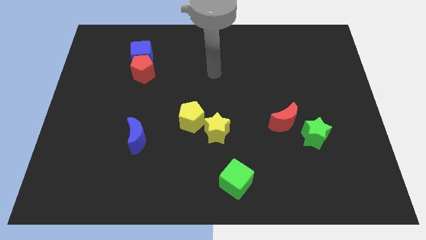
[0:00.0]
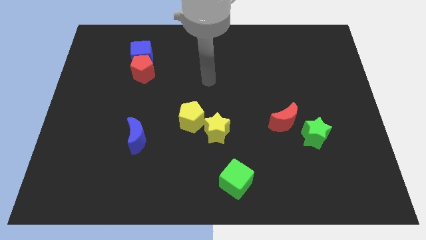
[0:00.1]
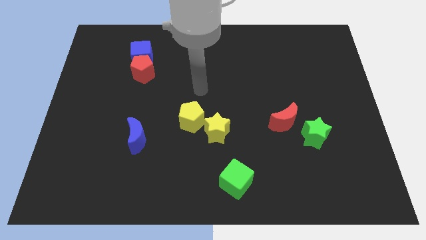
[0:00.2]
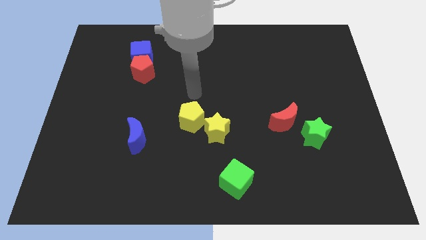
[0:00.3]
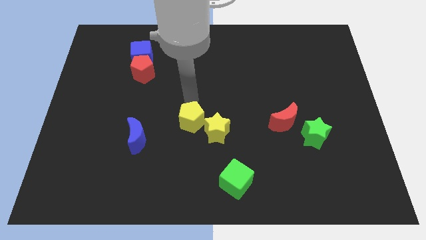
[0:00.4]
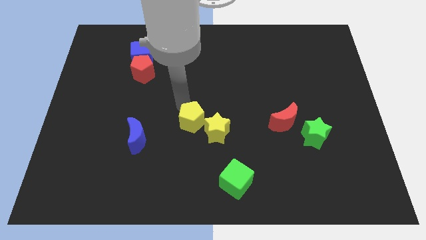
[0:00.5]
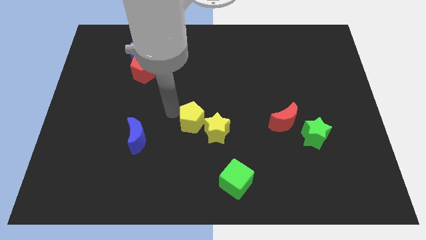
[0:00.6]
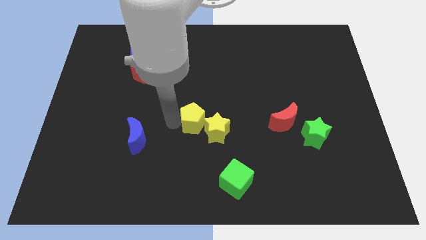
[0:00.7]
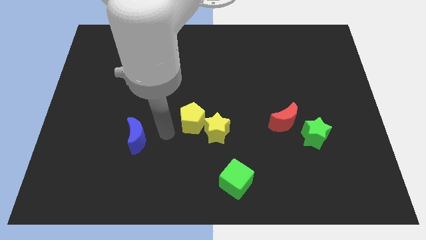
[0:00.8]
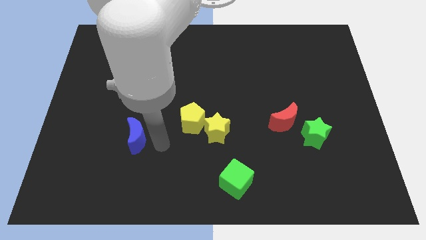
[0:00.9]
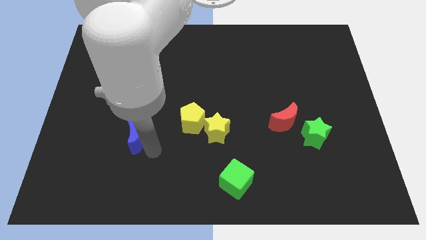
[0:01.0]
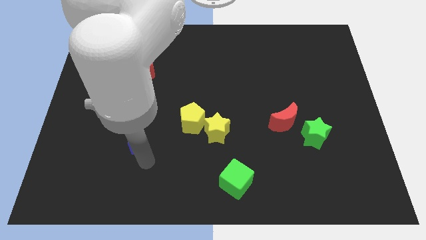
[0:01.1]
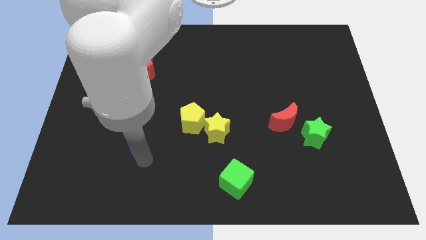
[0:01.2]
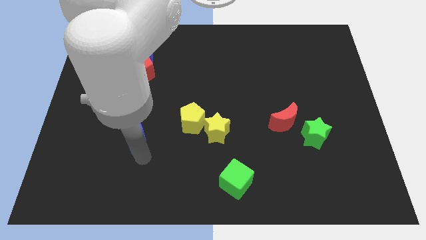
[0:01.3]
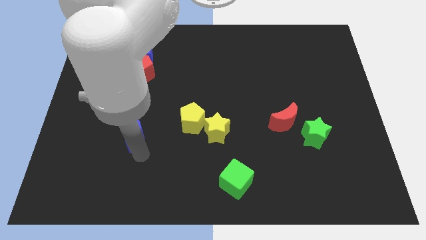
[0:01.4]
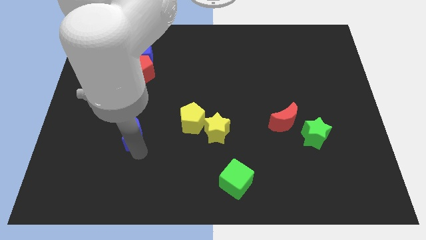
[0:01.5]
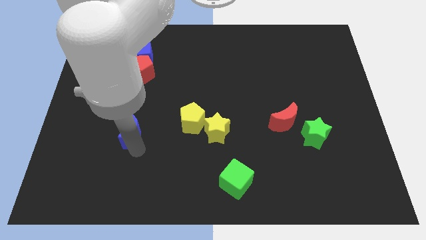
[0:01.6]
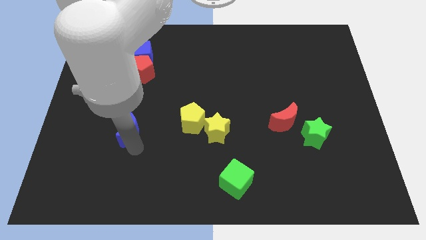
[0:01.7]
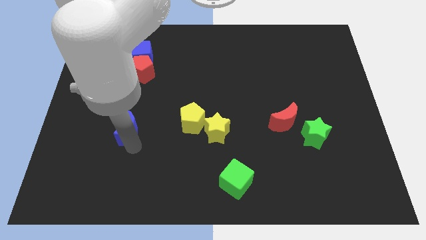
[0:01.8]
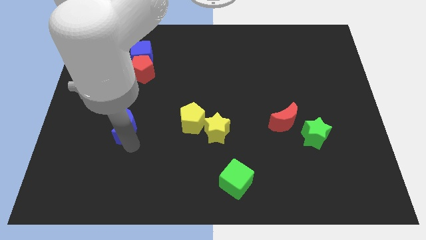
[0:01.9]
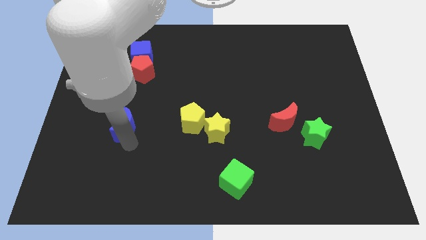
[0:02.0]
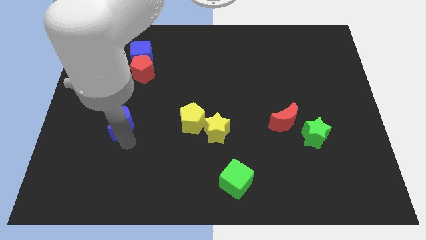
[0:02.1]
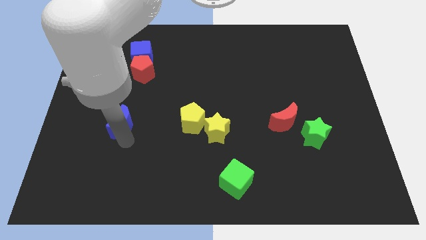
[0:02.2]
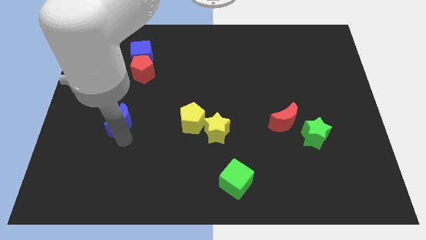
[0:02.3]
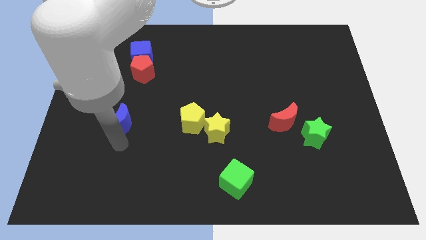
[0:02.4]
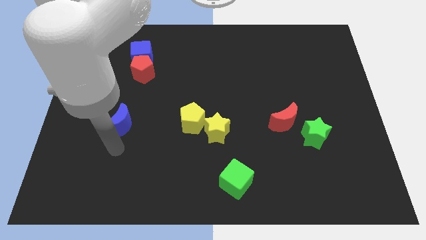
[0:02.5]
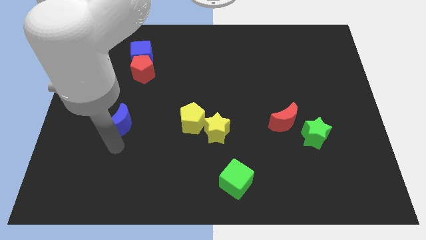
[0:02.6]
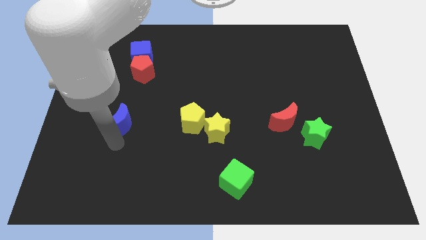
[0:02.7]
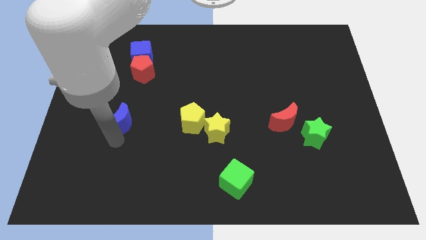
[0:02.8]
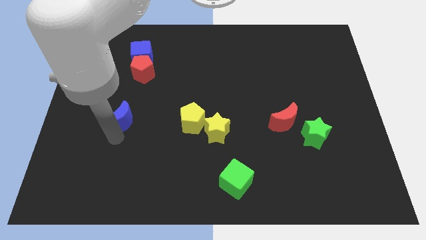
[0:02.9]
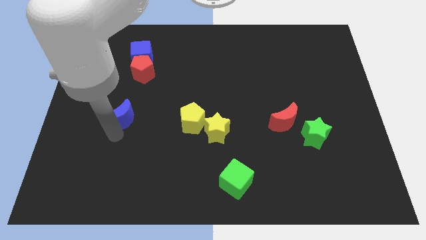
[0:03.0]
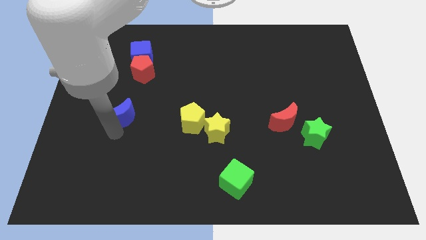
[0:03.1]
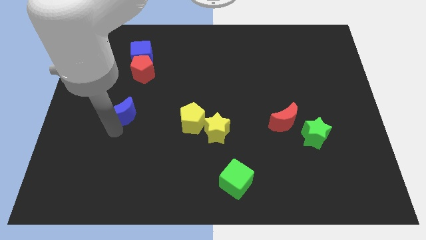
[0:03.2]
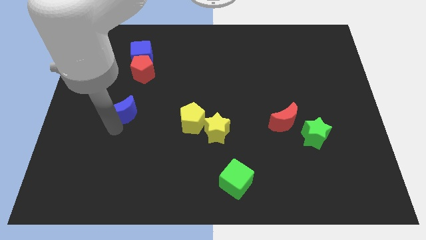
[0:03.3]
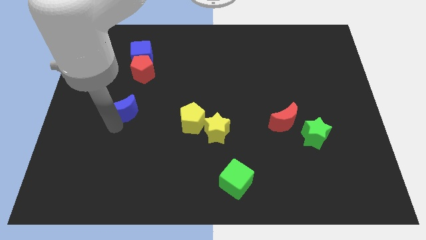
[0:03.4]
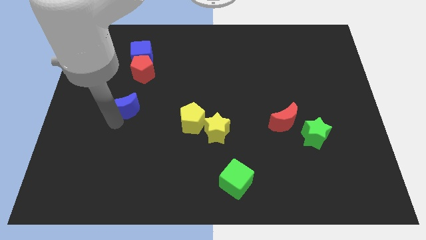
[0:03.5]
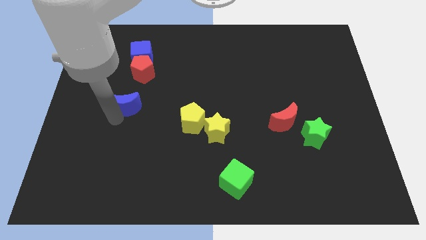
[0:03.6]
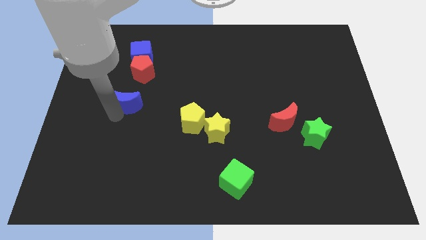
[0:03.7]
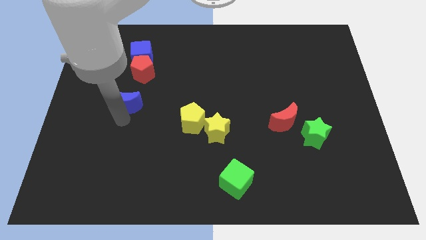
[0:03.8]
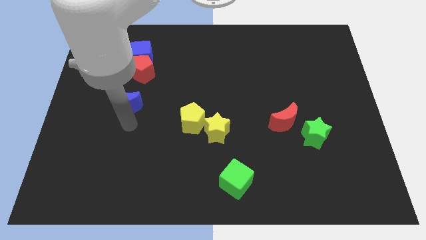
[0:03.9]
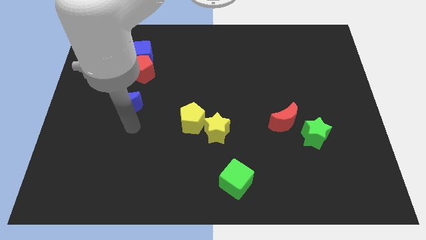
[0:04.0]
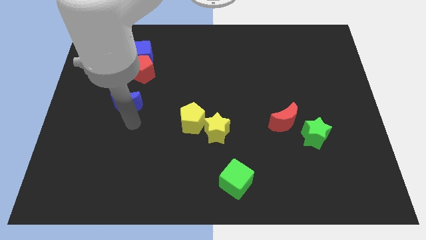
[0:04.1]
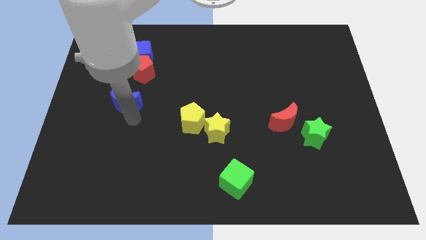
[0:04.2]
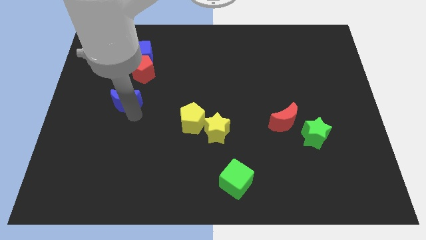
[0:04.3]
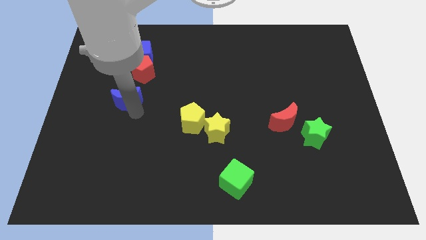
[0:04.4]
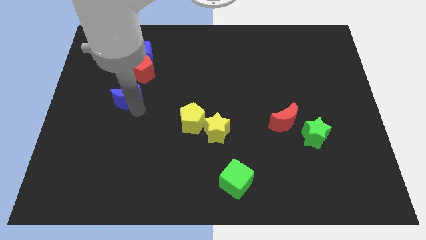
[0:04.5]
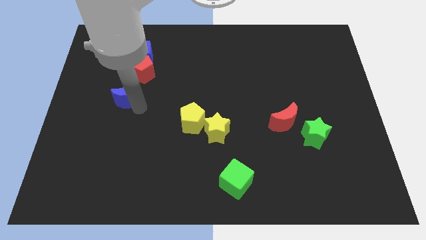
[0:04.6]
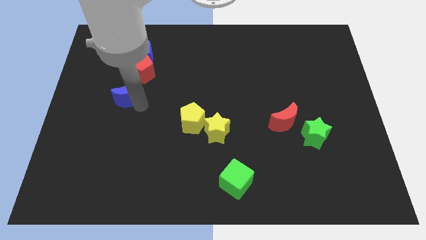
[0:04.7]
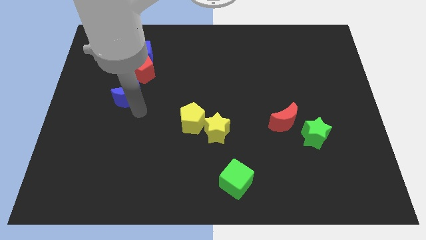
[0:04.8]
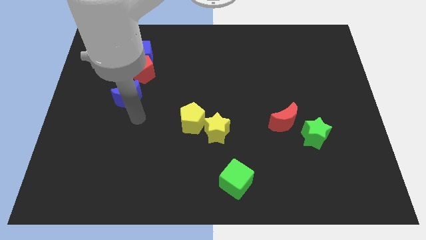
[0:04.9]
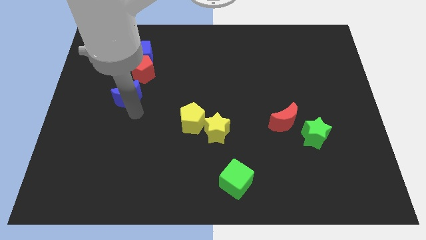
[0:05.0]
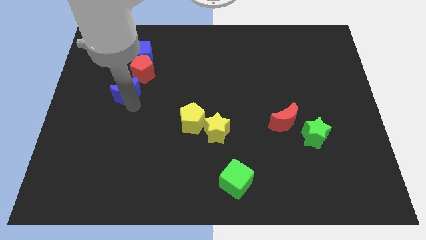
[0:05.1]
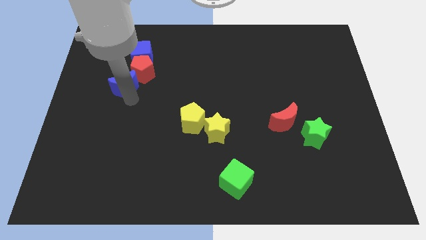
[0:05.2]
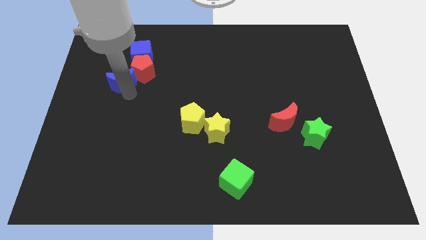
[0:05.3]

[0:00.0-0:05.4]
move the blue moon to the bottom left side of the blue cube

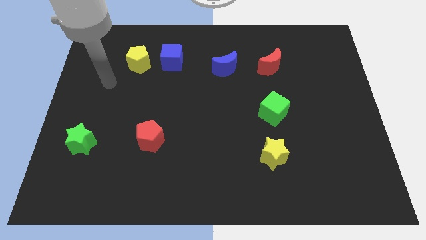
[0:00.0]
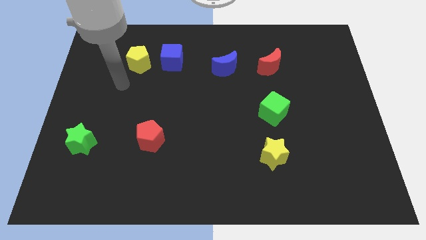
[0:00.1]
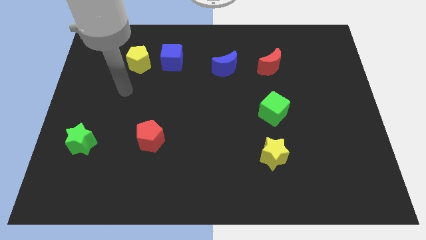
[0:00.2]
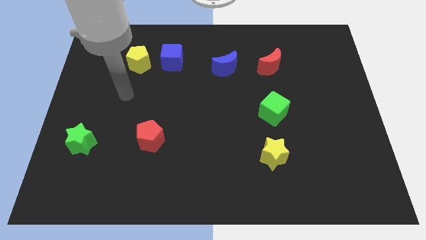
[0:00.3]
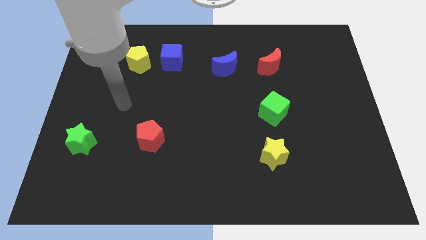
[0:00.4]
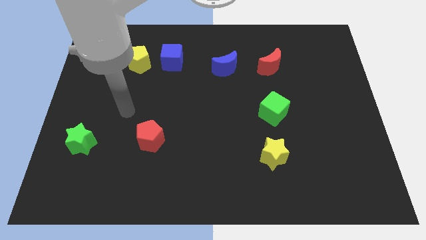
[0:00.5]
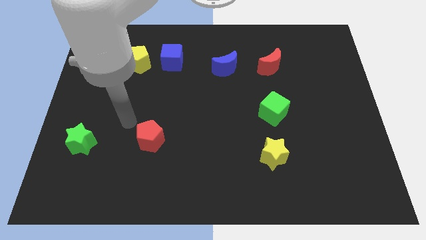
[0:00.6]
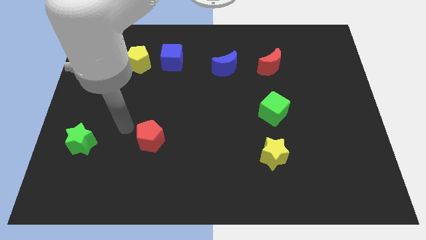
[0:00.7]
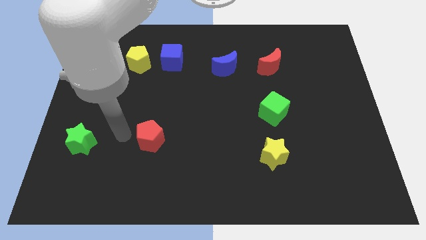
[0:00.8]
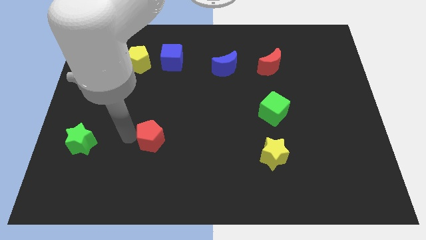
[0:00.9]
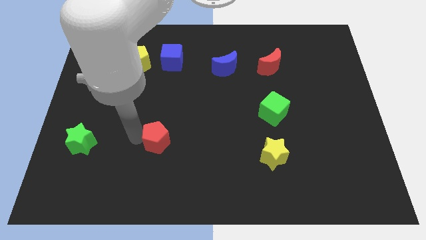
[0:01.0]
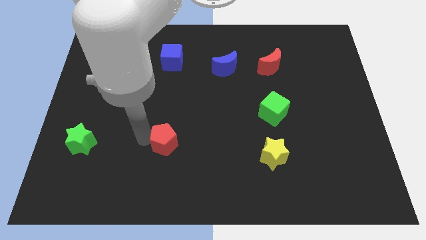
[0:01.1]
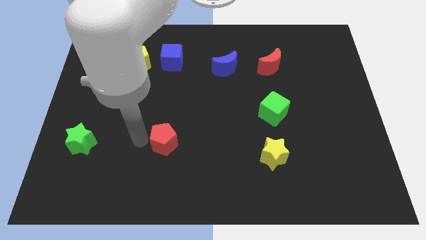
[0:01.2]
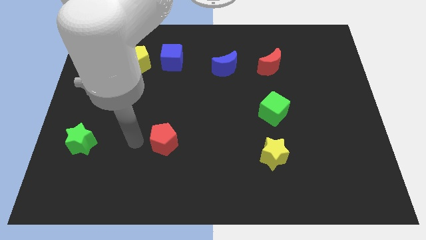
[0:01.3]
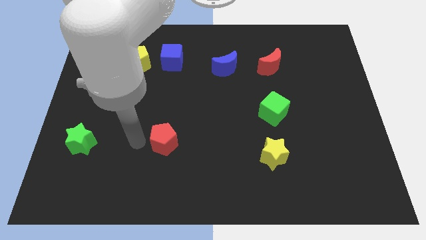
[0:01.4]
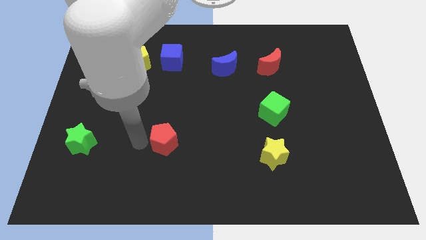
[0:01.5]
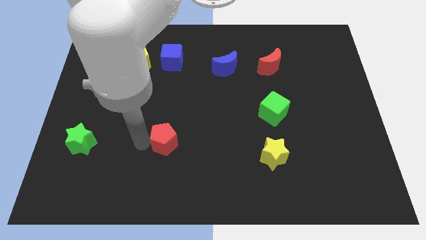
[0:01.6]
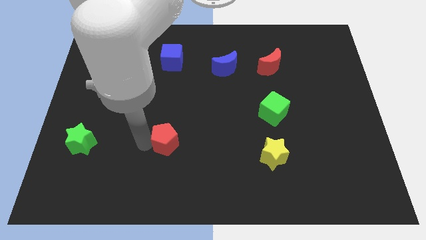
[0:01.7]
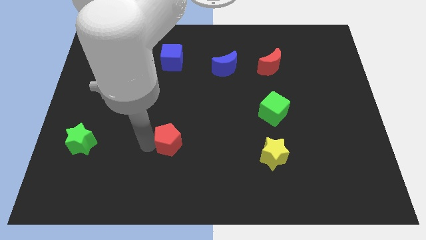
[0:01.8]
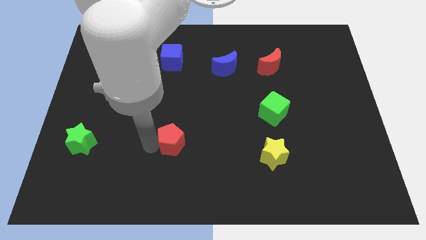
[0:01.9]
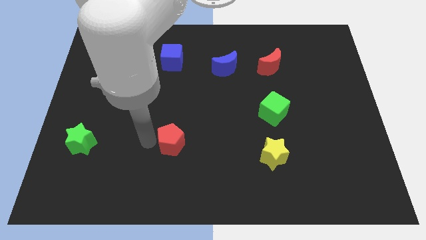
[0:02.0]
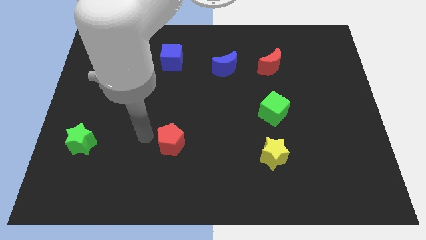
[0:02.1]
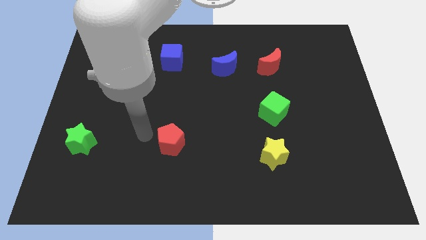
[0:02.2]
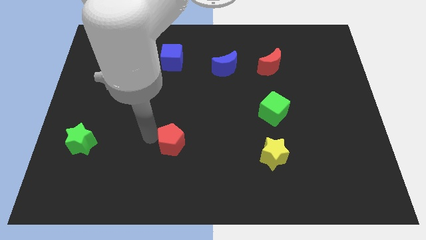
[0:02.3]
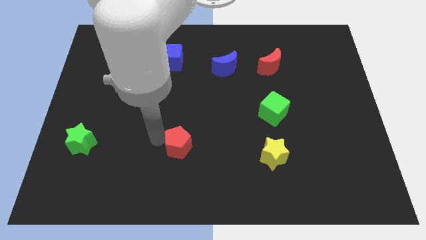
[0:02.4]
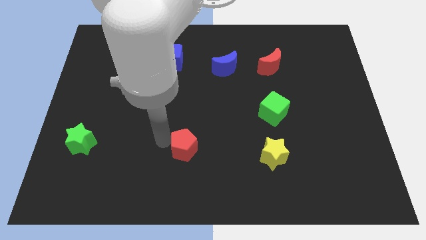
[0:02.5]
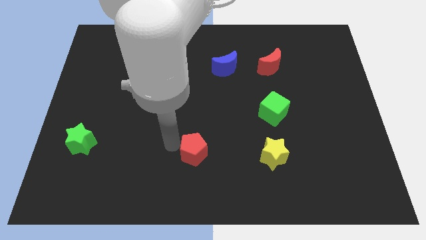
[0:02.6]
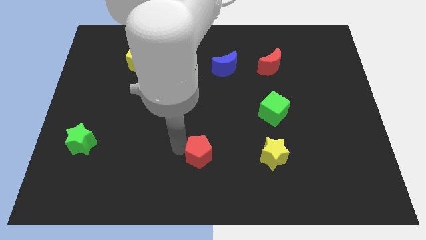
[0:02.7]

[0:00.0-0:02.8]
push the red pentagon to the left of the yellow star
